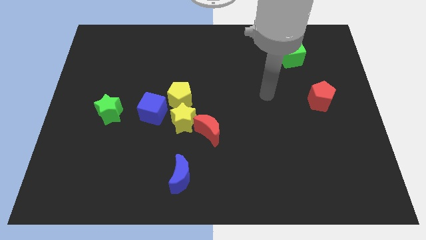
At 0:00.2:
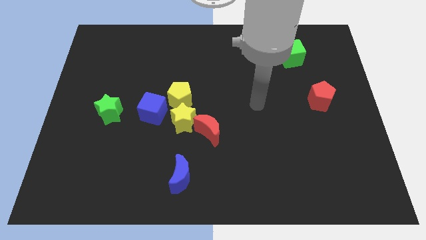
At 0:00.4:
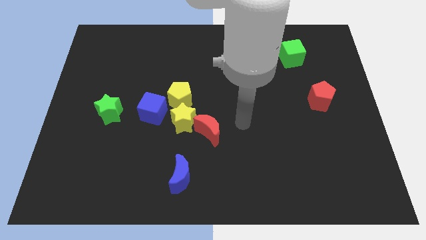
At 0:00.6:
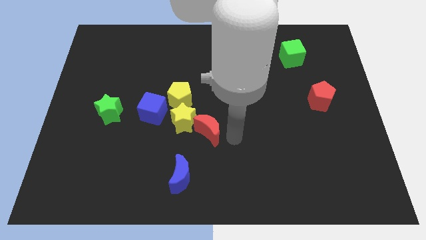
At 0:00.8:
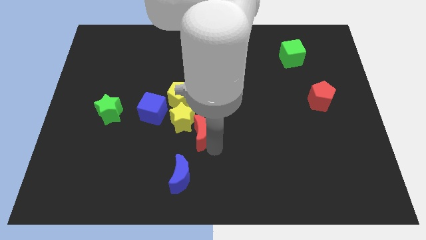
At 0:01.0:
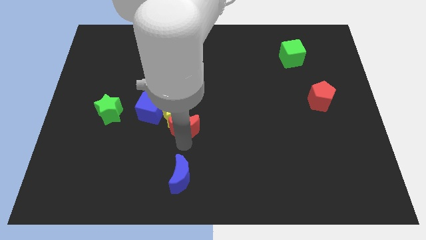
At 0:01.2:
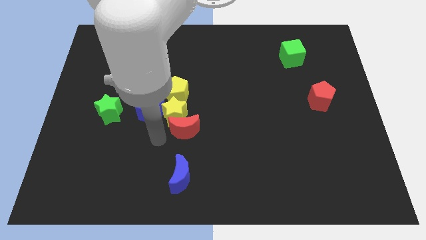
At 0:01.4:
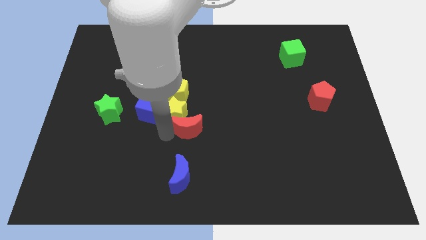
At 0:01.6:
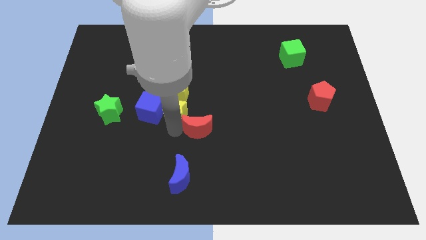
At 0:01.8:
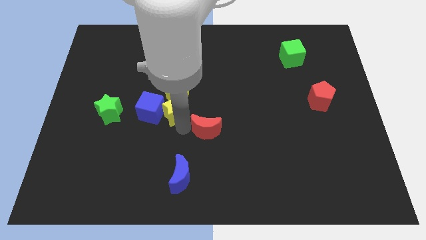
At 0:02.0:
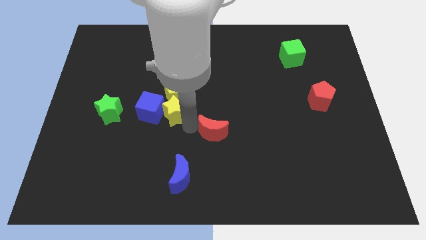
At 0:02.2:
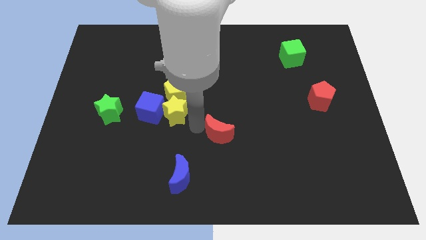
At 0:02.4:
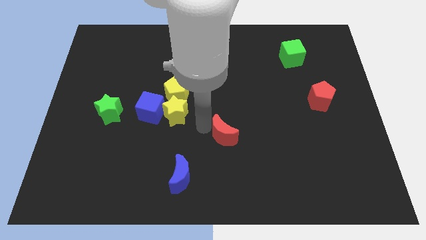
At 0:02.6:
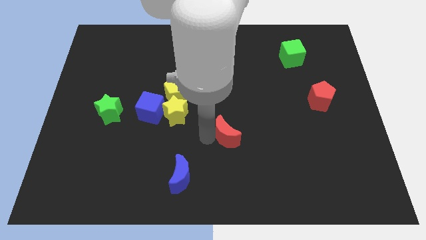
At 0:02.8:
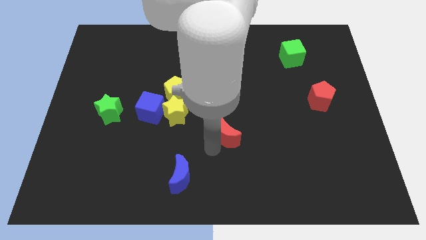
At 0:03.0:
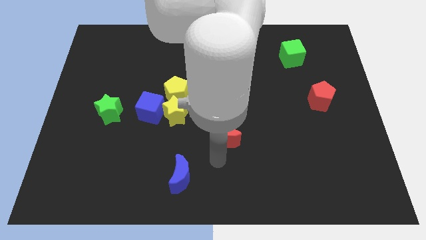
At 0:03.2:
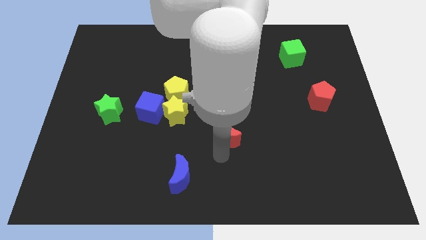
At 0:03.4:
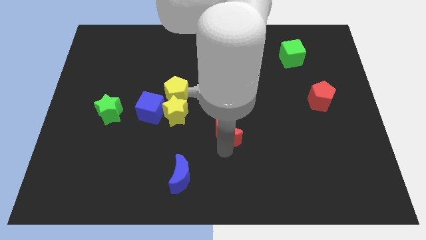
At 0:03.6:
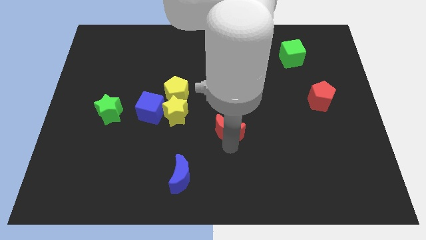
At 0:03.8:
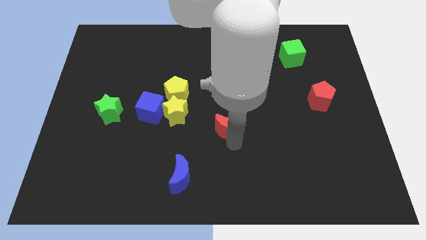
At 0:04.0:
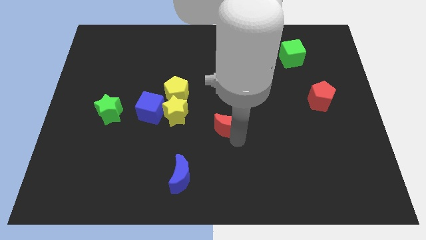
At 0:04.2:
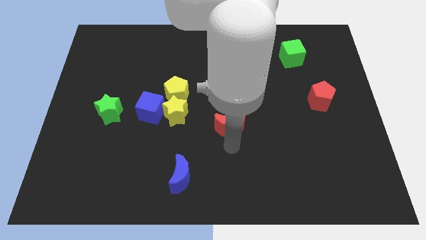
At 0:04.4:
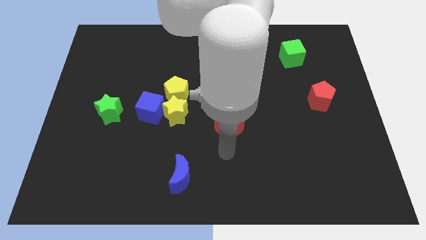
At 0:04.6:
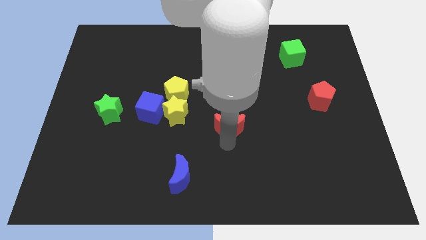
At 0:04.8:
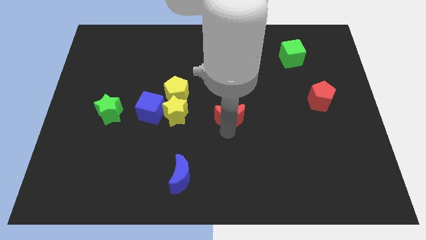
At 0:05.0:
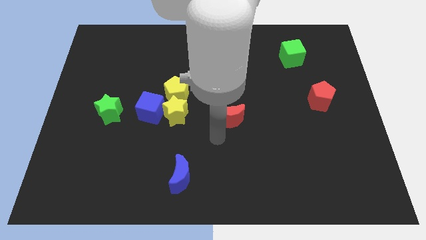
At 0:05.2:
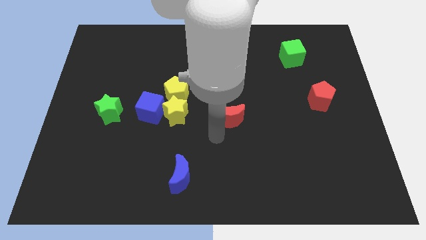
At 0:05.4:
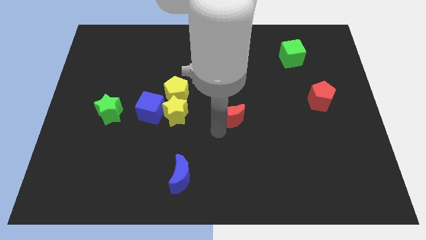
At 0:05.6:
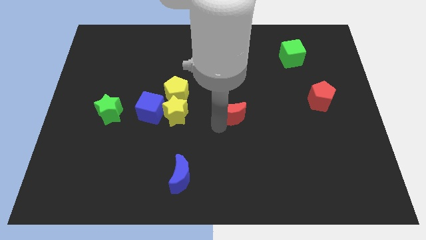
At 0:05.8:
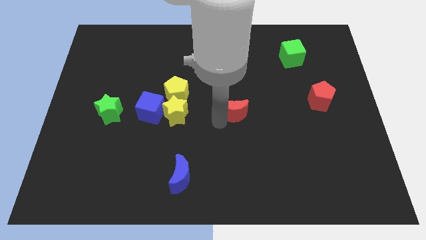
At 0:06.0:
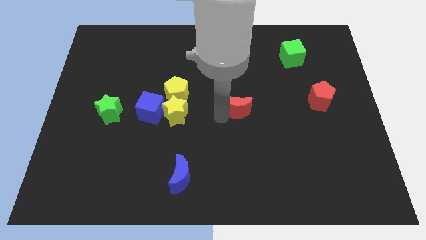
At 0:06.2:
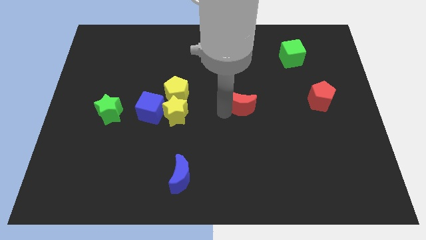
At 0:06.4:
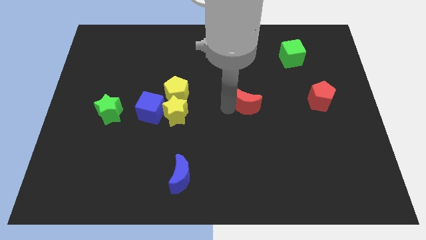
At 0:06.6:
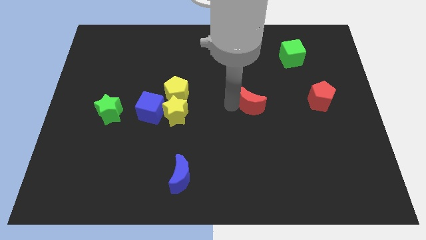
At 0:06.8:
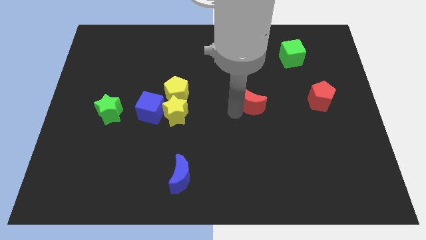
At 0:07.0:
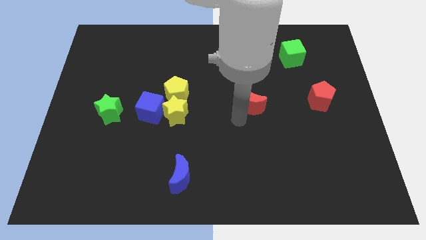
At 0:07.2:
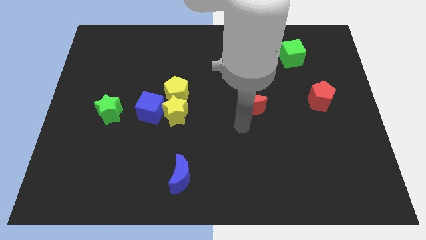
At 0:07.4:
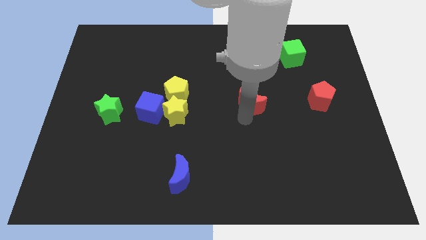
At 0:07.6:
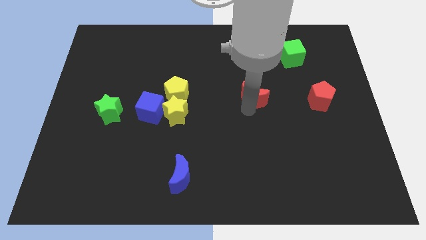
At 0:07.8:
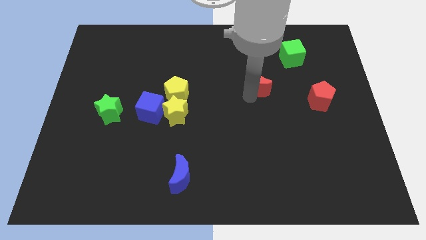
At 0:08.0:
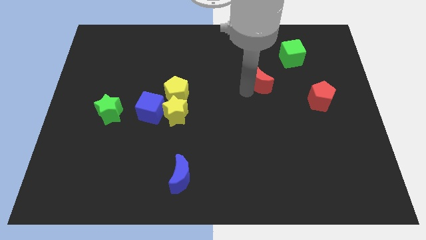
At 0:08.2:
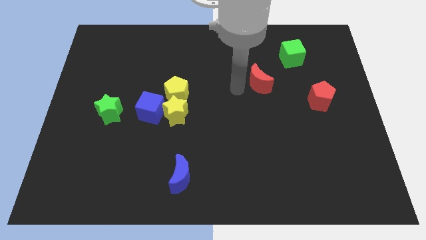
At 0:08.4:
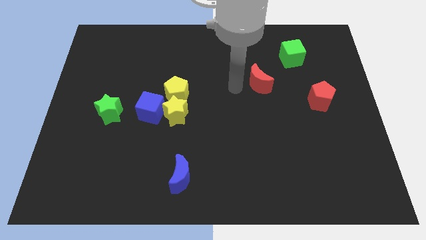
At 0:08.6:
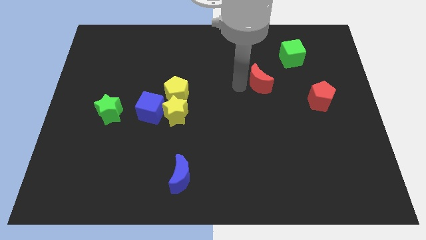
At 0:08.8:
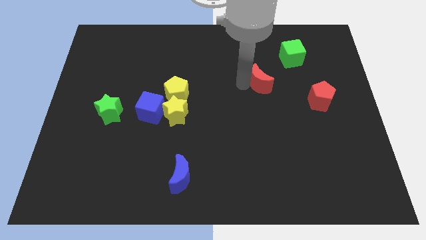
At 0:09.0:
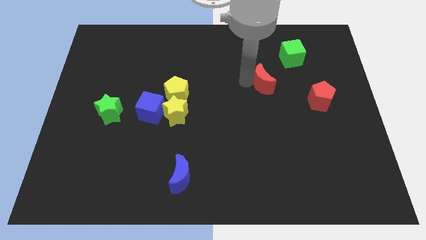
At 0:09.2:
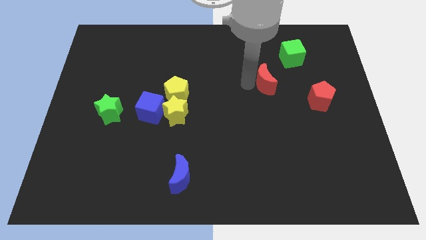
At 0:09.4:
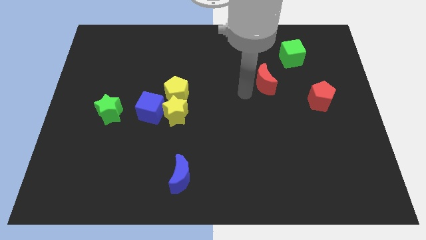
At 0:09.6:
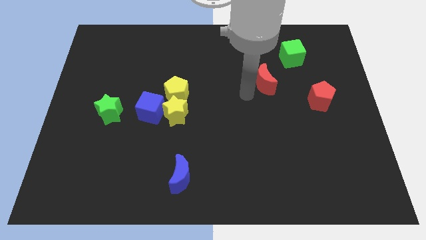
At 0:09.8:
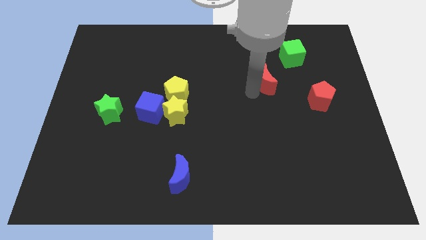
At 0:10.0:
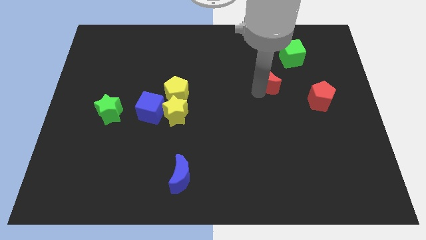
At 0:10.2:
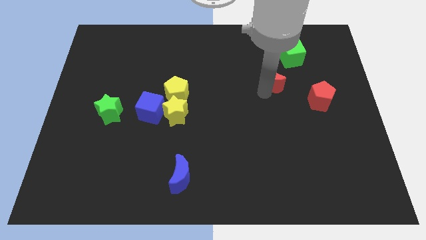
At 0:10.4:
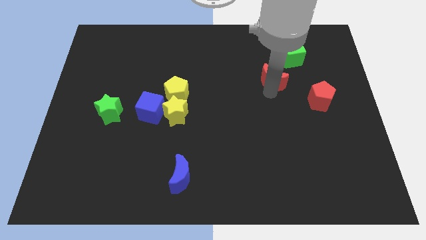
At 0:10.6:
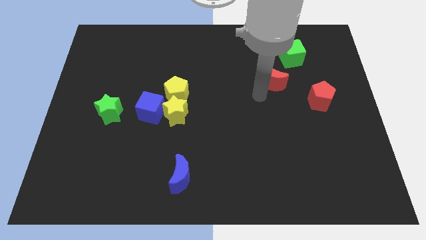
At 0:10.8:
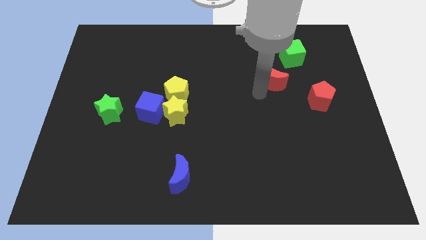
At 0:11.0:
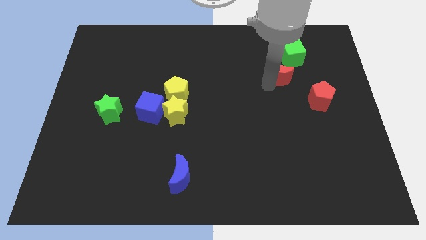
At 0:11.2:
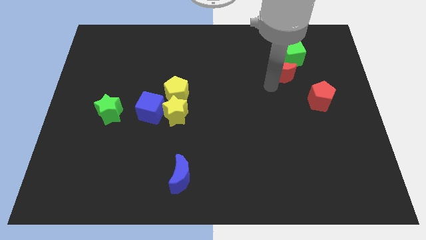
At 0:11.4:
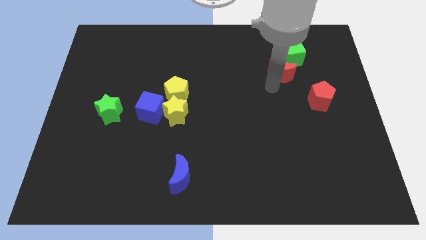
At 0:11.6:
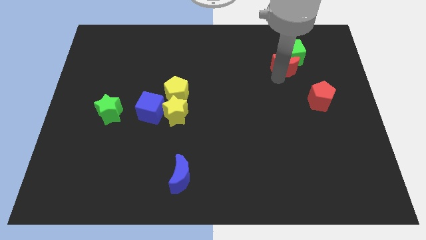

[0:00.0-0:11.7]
put the red moon next to the green cube

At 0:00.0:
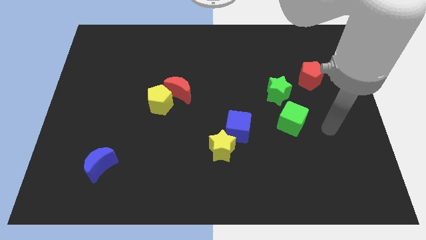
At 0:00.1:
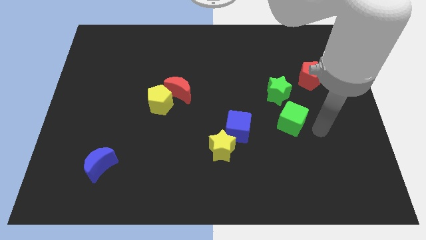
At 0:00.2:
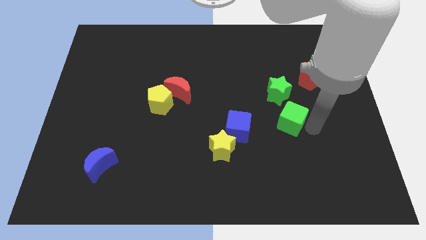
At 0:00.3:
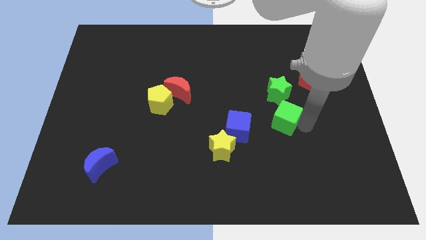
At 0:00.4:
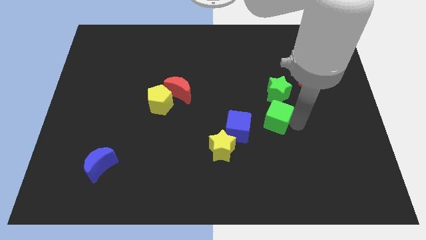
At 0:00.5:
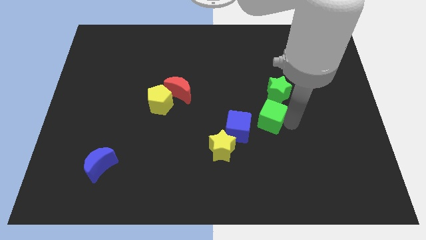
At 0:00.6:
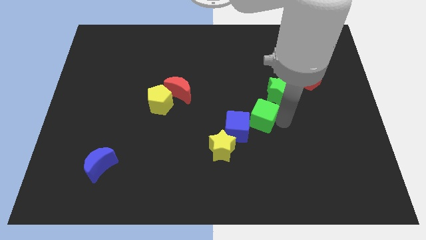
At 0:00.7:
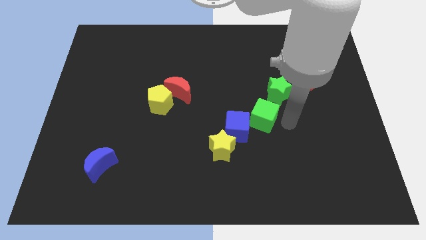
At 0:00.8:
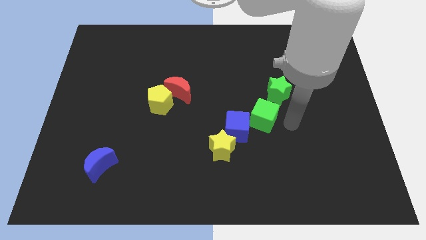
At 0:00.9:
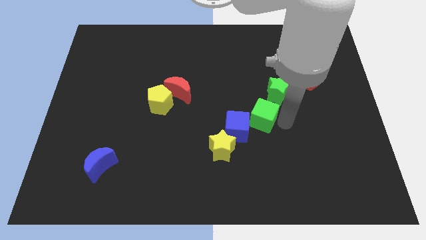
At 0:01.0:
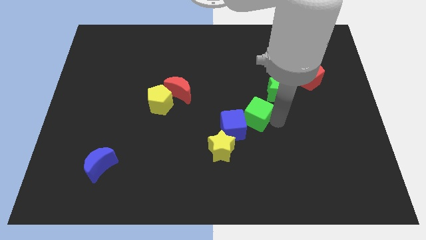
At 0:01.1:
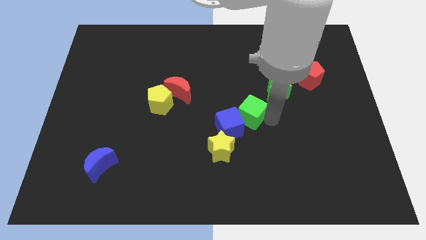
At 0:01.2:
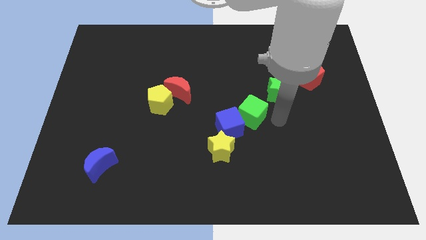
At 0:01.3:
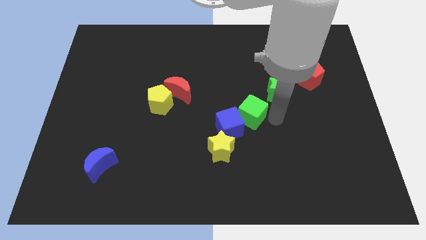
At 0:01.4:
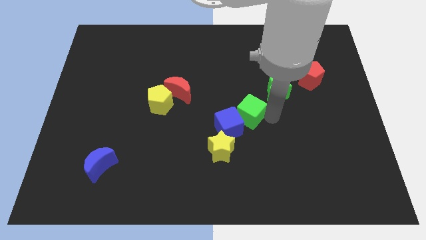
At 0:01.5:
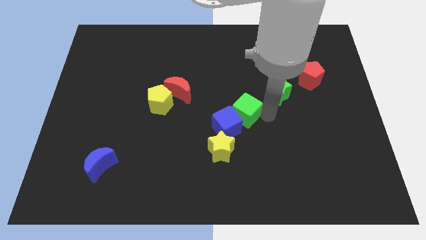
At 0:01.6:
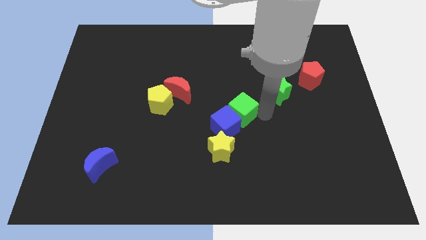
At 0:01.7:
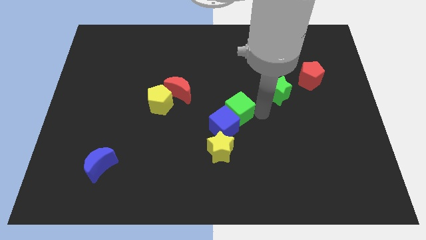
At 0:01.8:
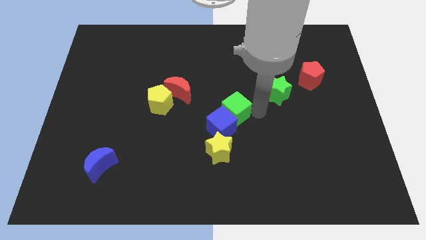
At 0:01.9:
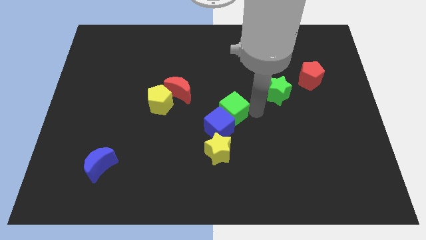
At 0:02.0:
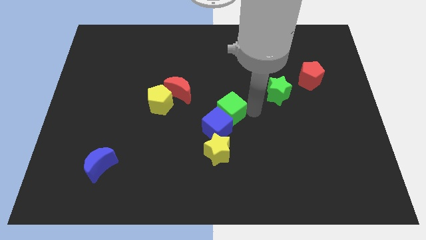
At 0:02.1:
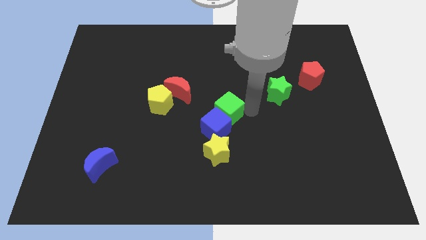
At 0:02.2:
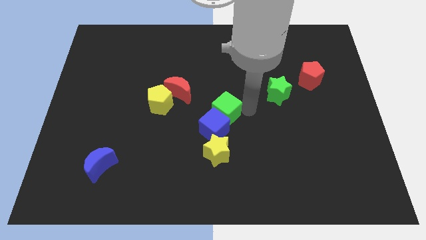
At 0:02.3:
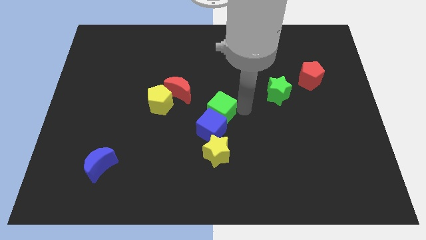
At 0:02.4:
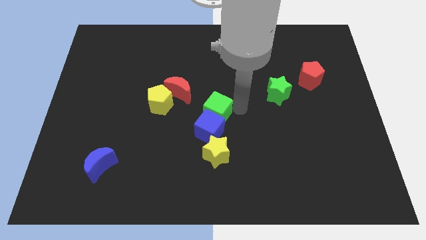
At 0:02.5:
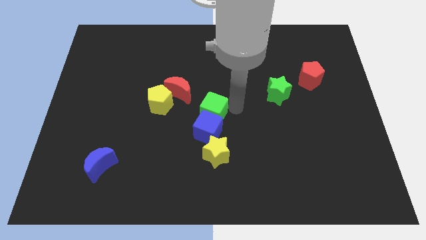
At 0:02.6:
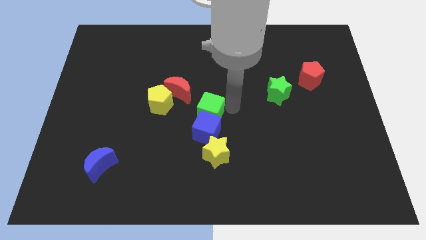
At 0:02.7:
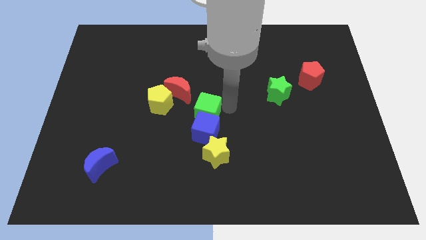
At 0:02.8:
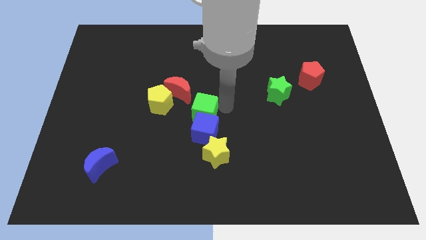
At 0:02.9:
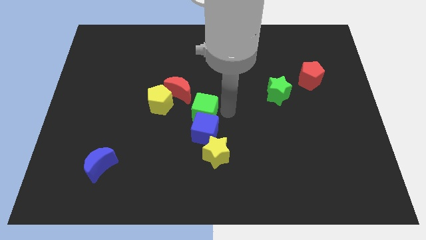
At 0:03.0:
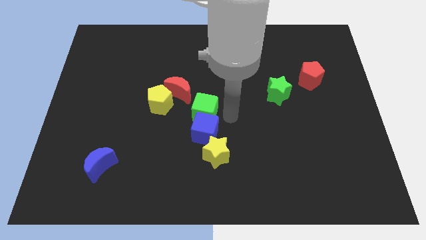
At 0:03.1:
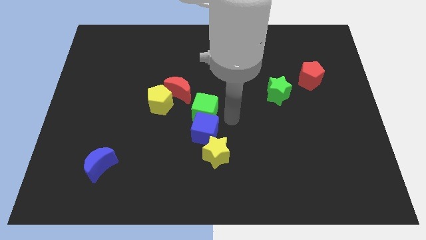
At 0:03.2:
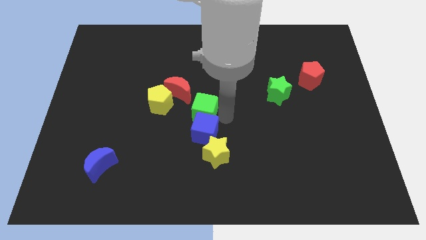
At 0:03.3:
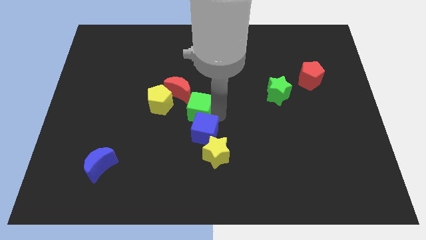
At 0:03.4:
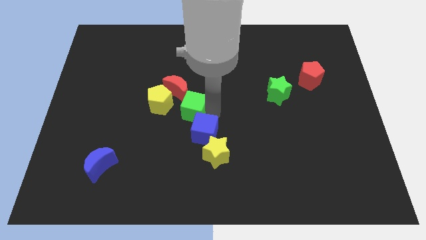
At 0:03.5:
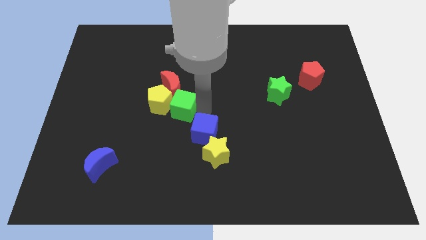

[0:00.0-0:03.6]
move the green cube towards the yellow pentagon
